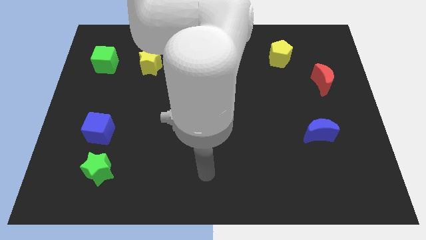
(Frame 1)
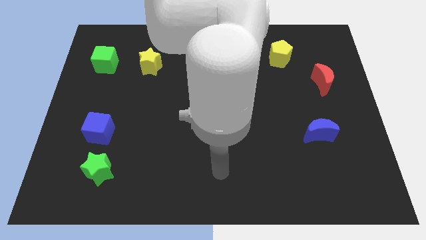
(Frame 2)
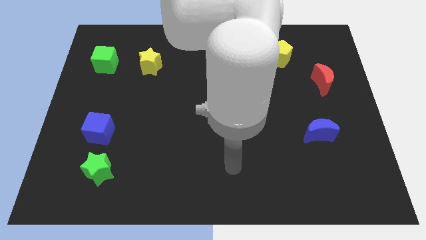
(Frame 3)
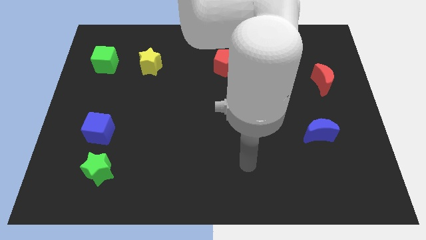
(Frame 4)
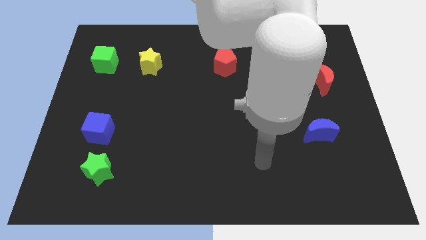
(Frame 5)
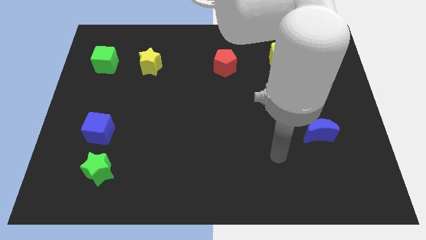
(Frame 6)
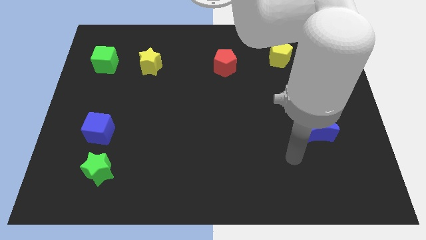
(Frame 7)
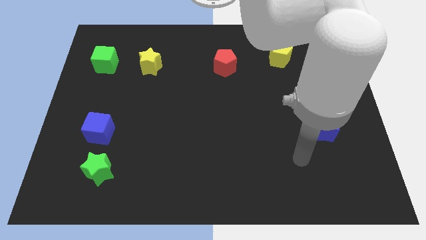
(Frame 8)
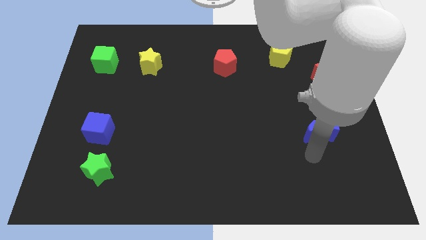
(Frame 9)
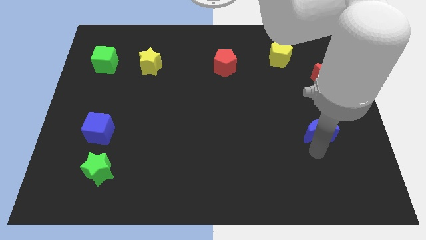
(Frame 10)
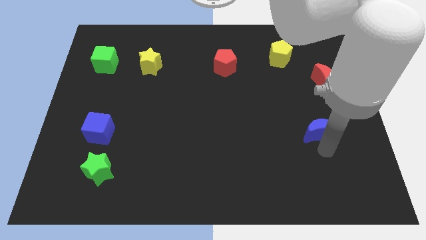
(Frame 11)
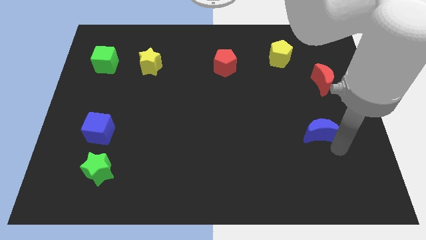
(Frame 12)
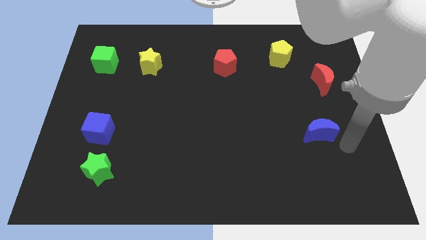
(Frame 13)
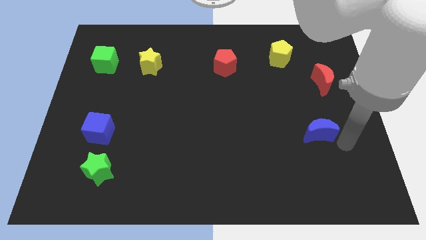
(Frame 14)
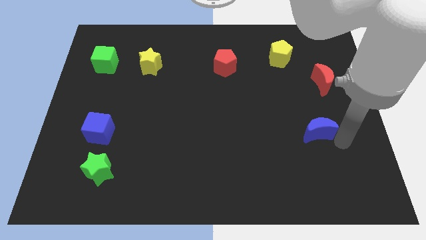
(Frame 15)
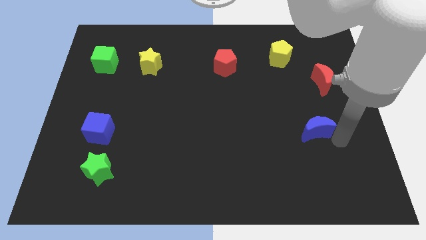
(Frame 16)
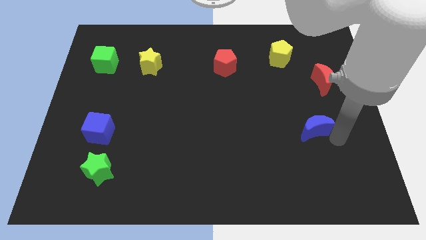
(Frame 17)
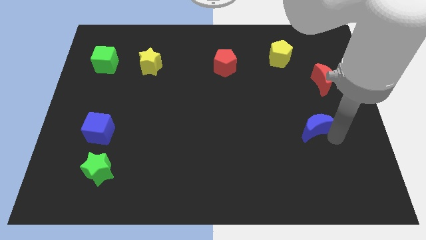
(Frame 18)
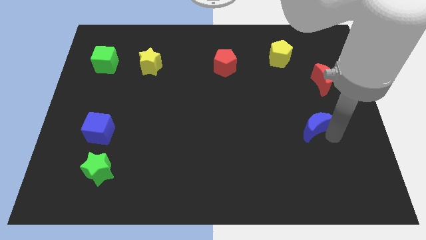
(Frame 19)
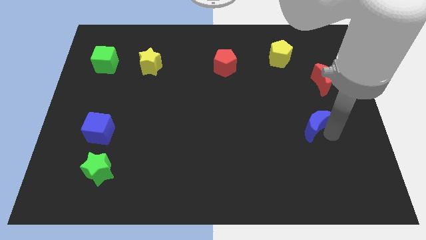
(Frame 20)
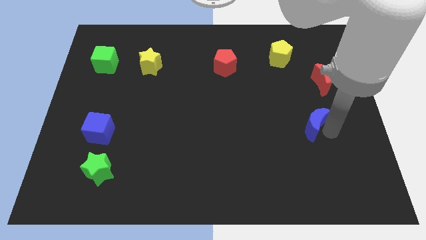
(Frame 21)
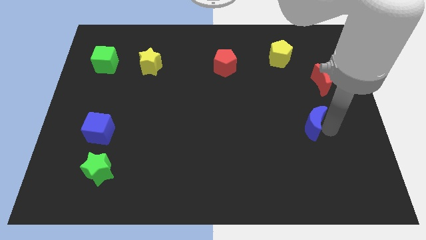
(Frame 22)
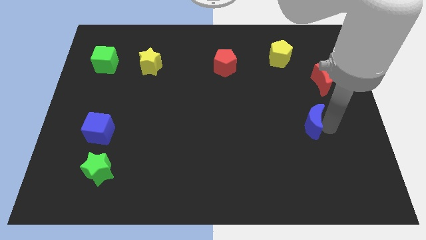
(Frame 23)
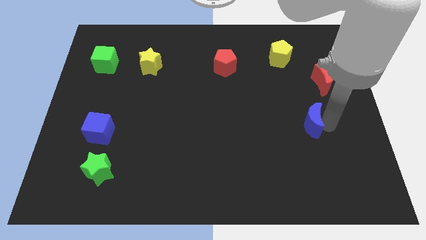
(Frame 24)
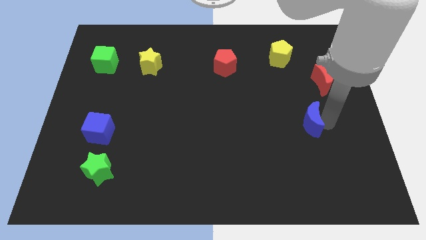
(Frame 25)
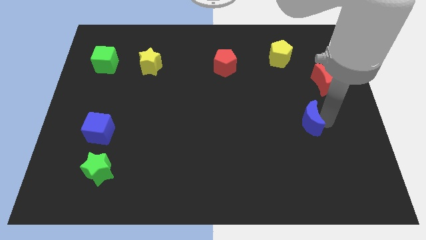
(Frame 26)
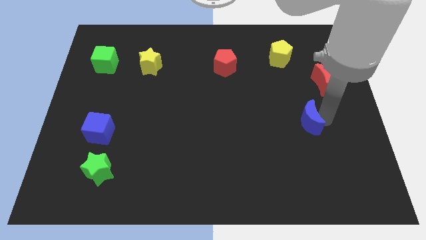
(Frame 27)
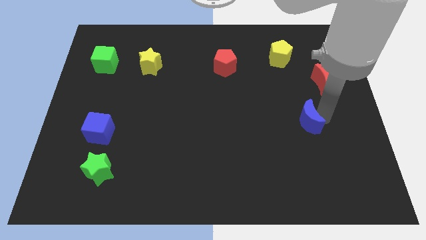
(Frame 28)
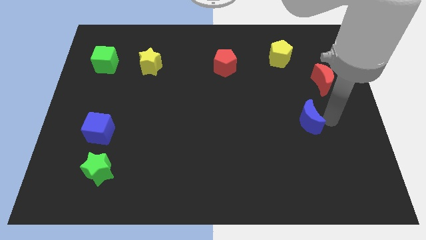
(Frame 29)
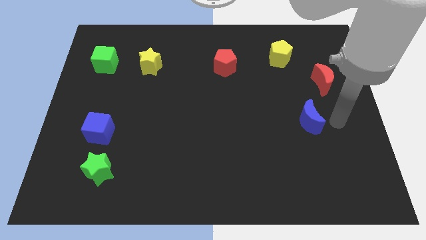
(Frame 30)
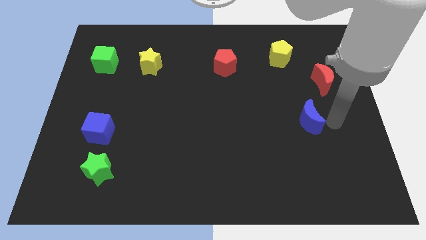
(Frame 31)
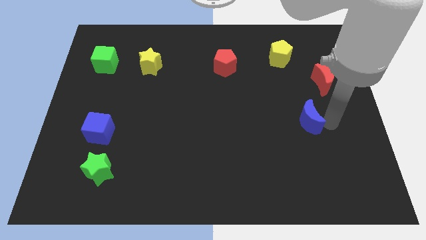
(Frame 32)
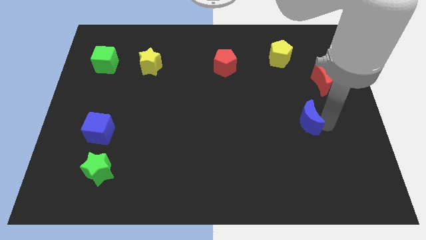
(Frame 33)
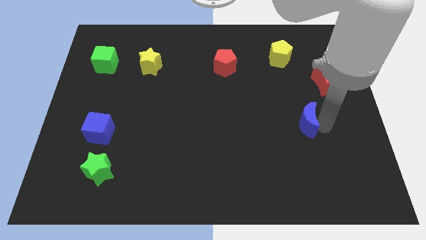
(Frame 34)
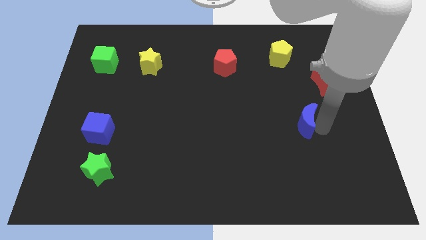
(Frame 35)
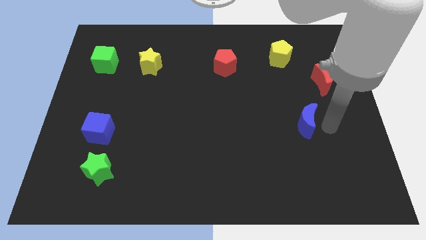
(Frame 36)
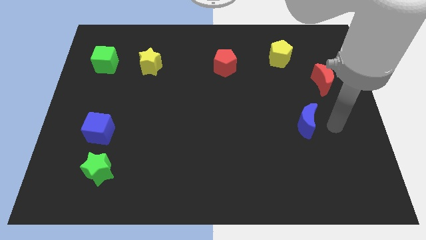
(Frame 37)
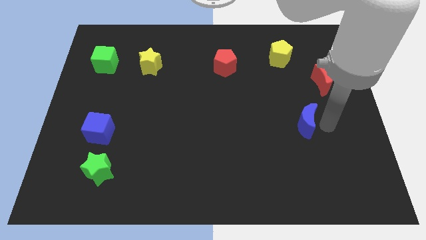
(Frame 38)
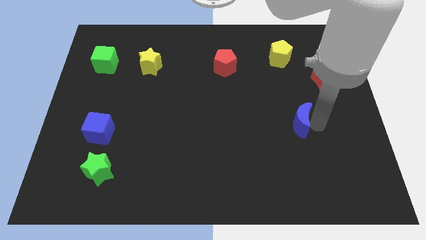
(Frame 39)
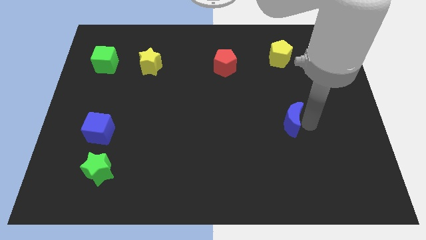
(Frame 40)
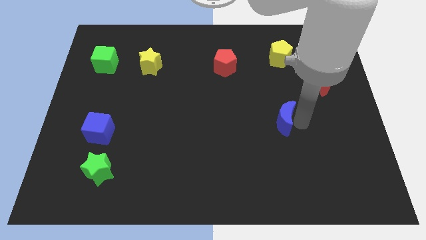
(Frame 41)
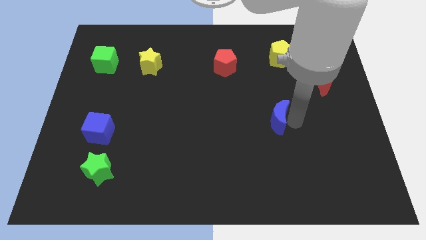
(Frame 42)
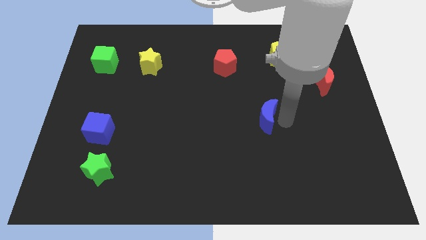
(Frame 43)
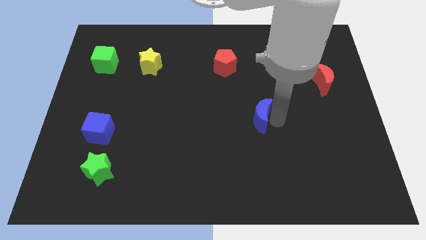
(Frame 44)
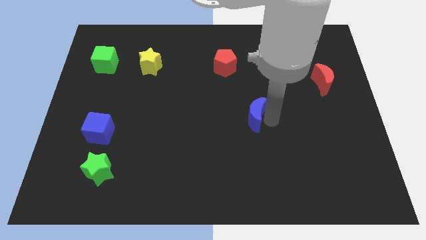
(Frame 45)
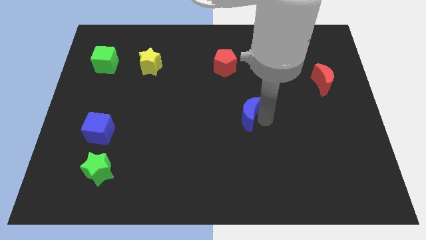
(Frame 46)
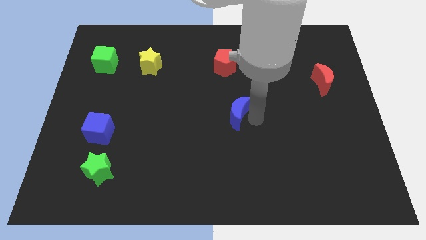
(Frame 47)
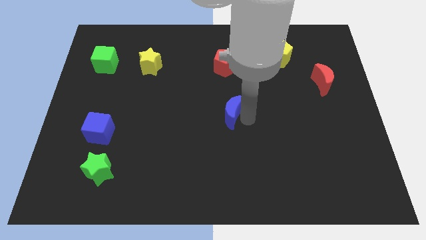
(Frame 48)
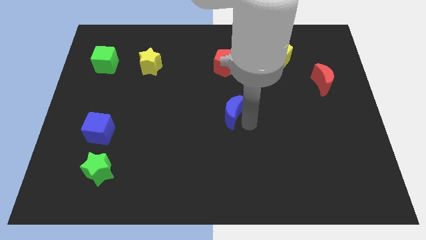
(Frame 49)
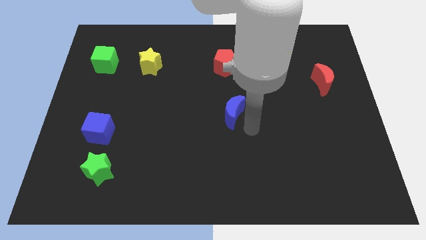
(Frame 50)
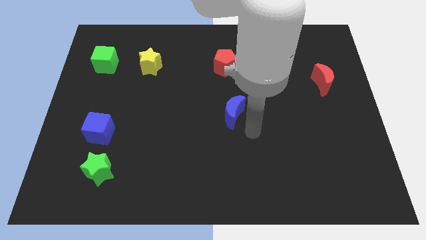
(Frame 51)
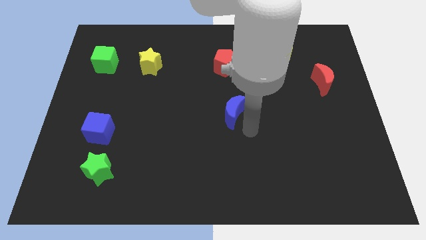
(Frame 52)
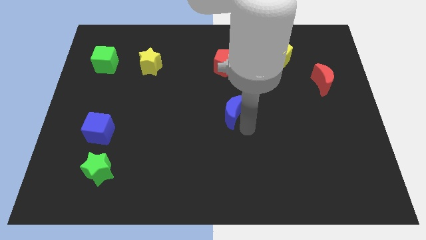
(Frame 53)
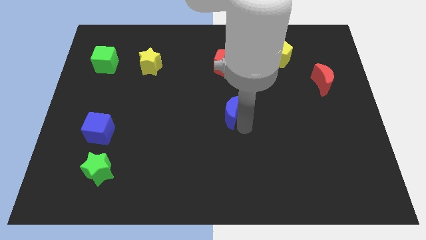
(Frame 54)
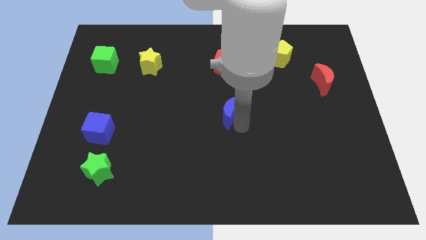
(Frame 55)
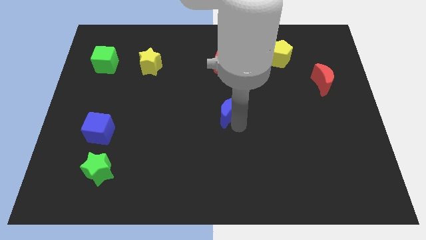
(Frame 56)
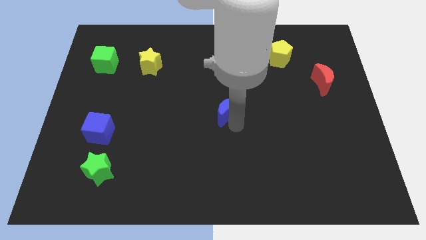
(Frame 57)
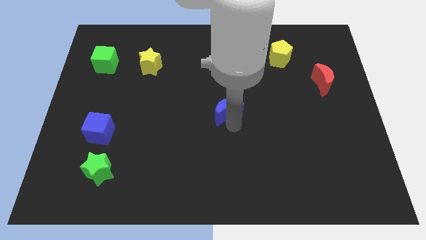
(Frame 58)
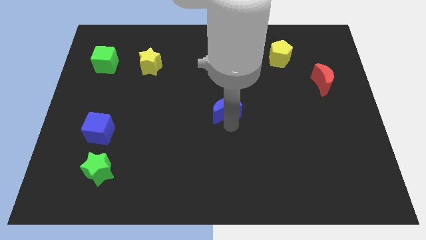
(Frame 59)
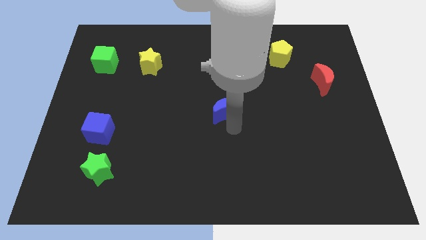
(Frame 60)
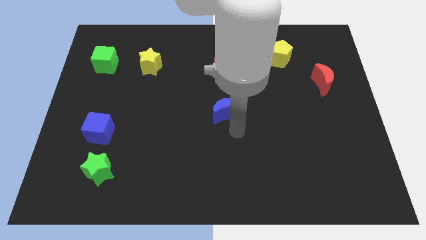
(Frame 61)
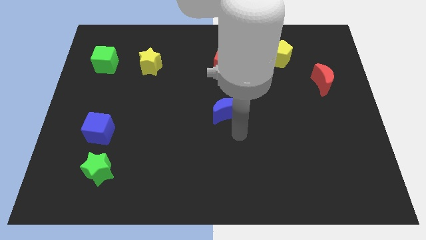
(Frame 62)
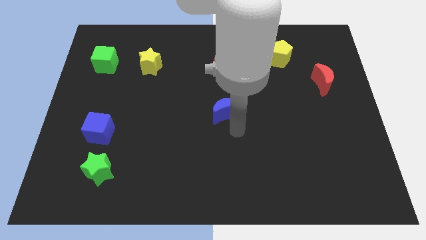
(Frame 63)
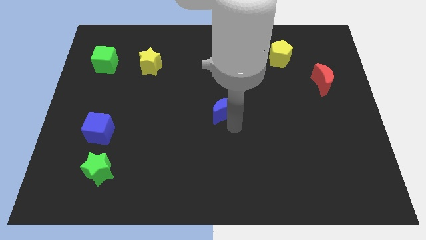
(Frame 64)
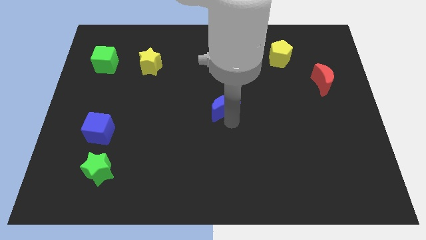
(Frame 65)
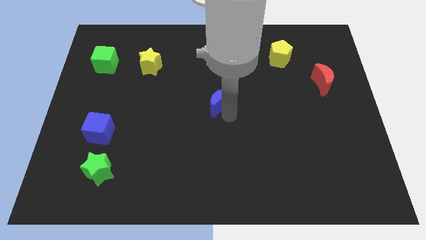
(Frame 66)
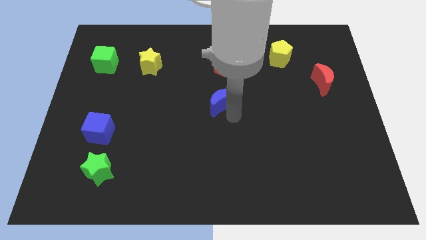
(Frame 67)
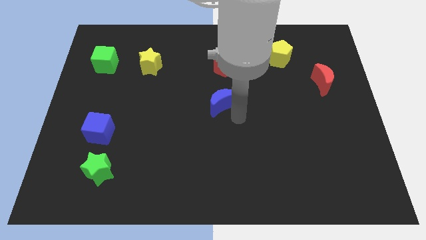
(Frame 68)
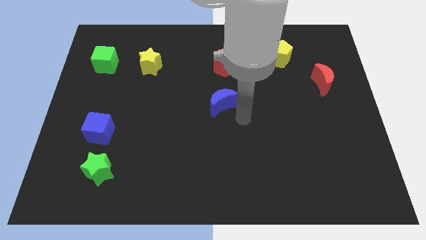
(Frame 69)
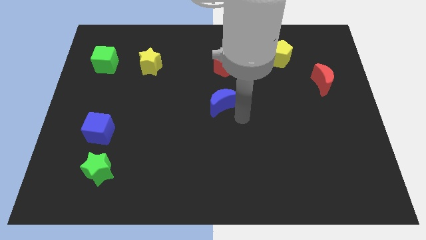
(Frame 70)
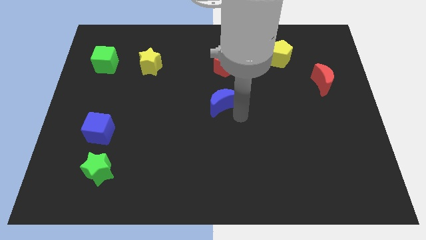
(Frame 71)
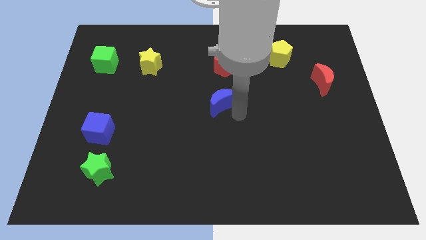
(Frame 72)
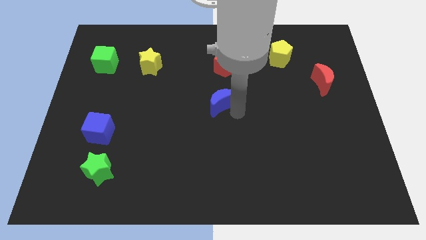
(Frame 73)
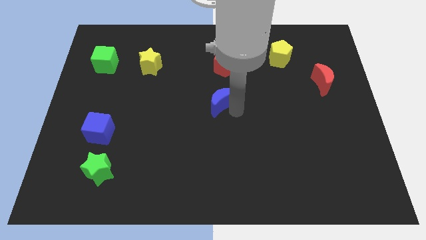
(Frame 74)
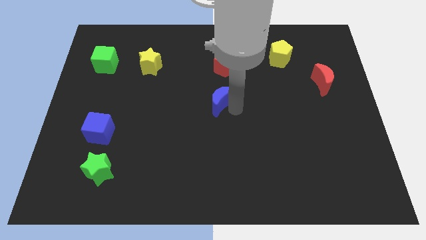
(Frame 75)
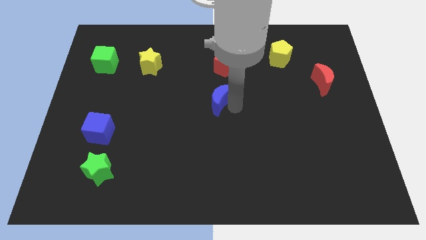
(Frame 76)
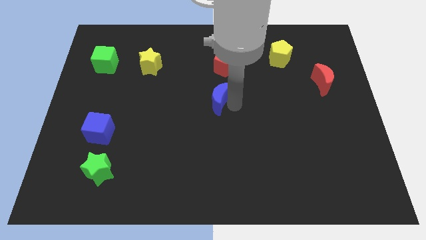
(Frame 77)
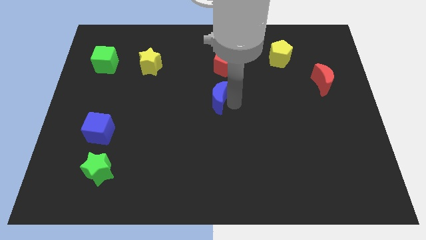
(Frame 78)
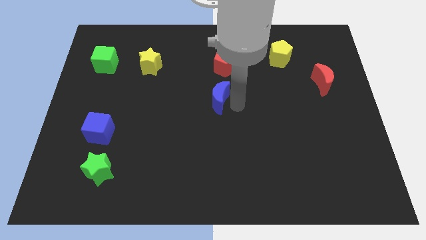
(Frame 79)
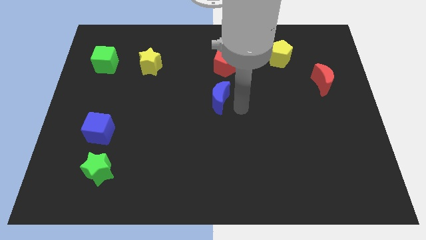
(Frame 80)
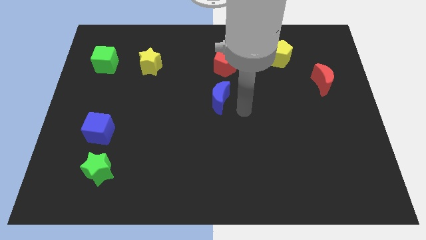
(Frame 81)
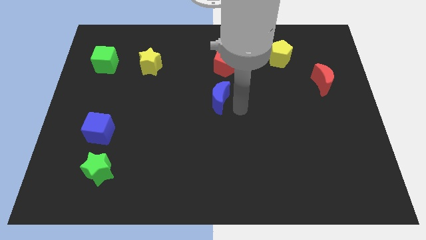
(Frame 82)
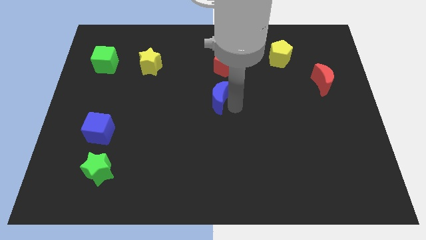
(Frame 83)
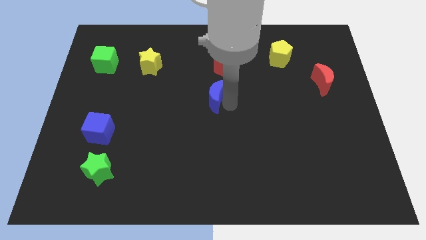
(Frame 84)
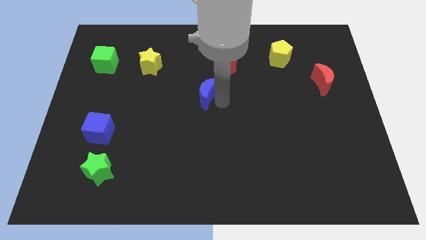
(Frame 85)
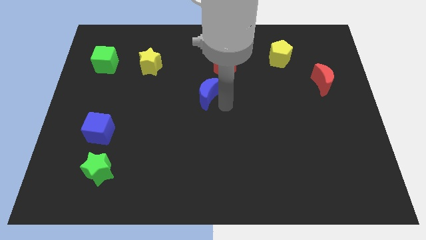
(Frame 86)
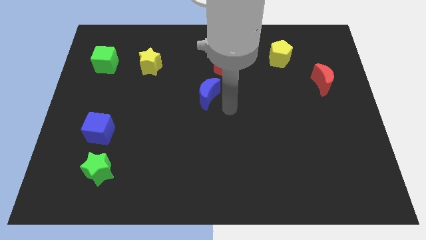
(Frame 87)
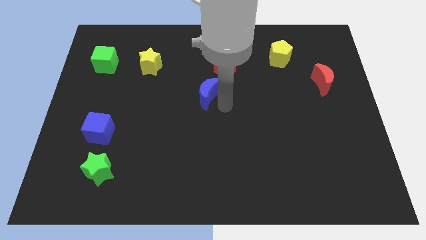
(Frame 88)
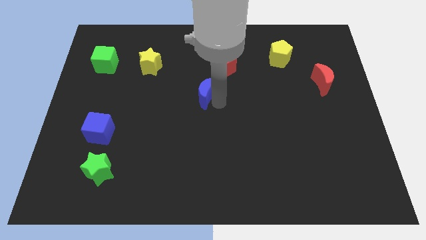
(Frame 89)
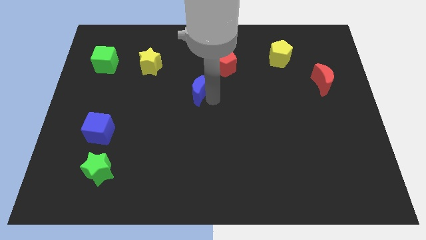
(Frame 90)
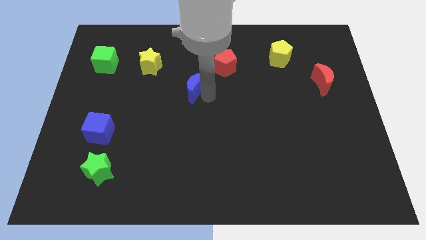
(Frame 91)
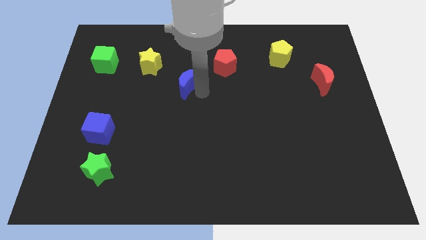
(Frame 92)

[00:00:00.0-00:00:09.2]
put the blue moon diagonally down and to the right of the yellow star
